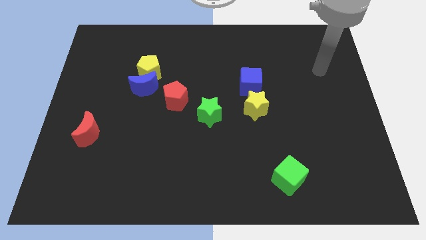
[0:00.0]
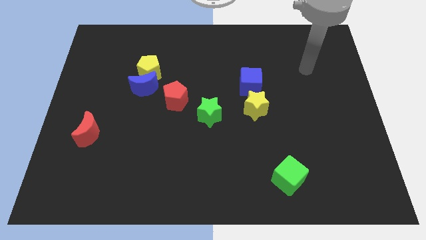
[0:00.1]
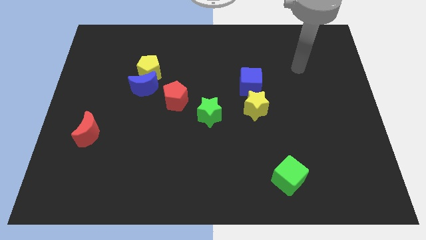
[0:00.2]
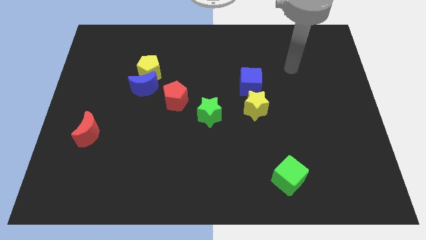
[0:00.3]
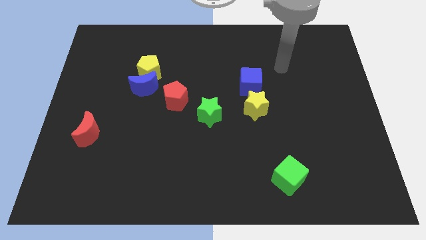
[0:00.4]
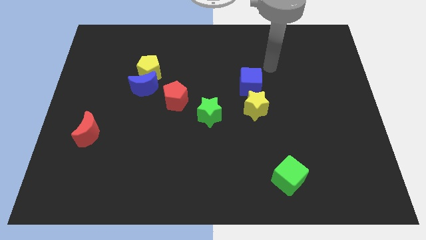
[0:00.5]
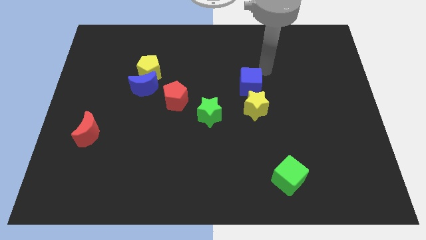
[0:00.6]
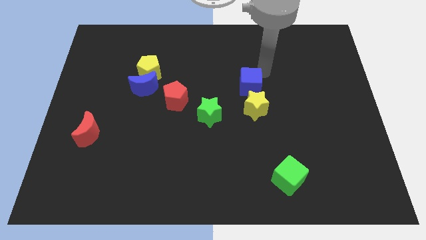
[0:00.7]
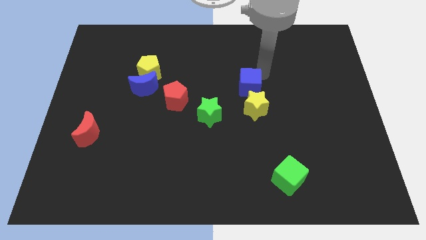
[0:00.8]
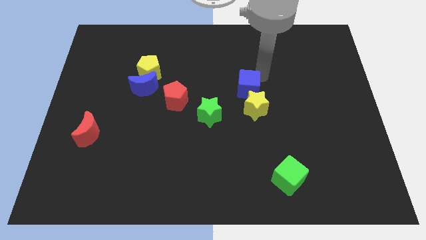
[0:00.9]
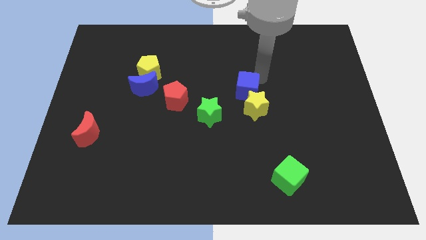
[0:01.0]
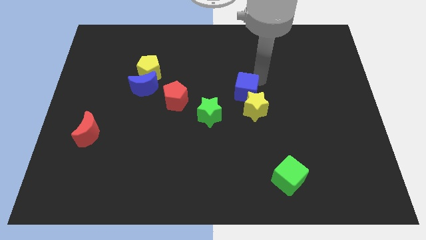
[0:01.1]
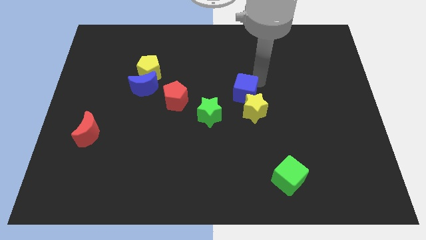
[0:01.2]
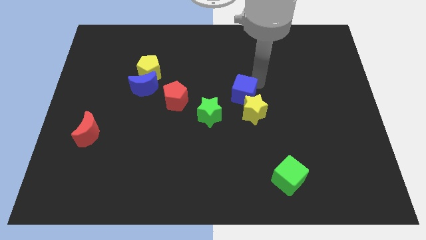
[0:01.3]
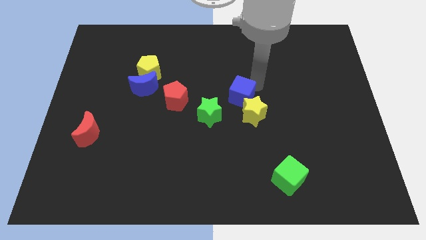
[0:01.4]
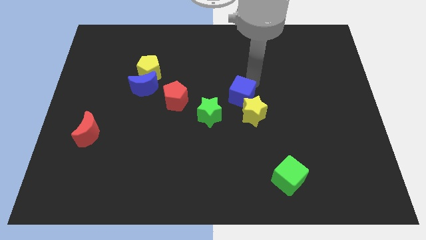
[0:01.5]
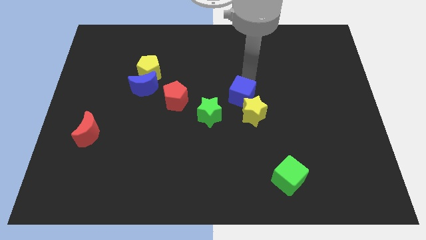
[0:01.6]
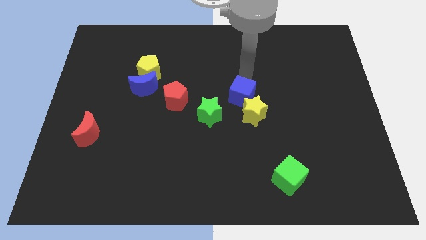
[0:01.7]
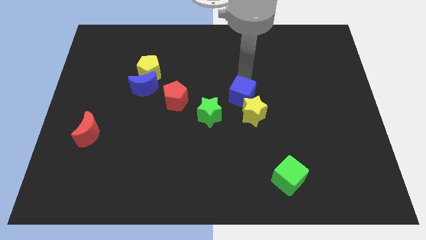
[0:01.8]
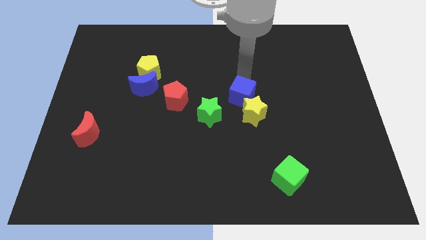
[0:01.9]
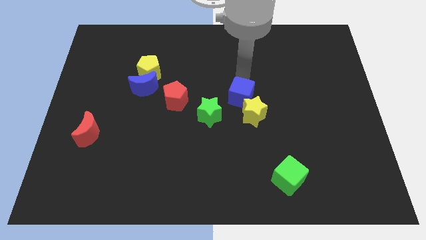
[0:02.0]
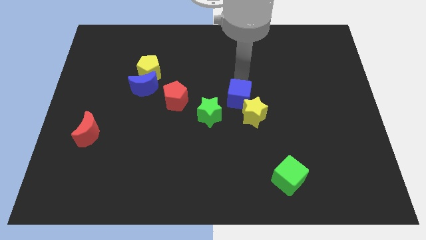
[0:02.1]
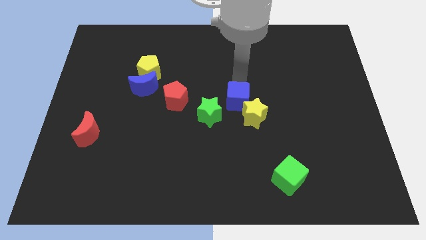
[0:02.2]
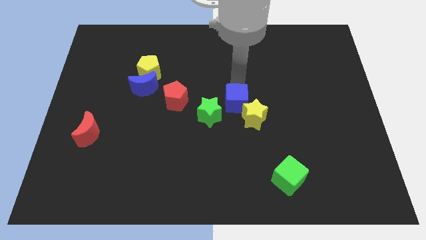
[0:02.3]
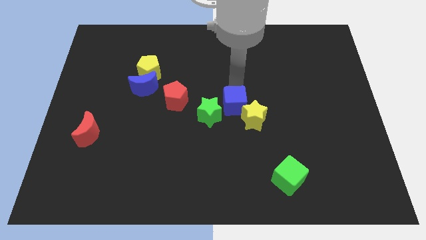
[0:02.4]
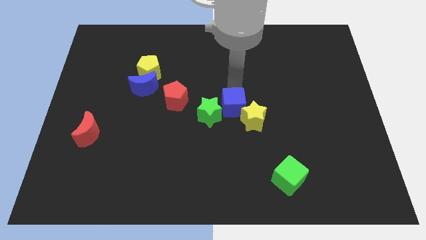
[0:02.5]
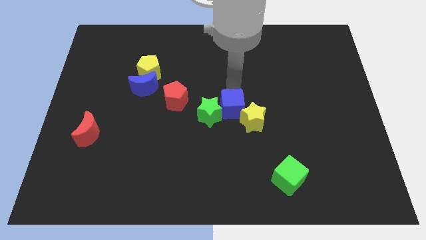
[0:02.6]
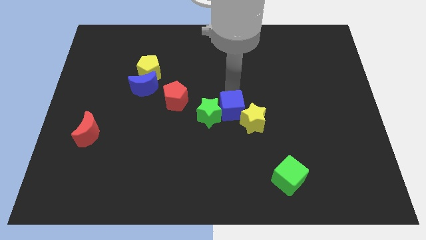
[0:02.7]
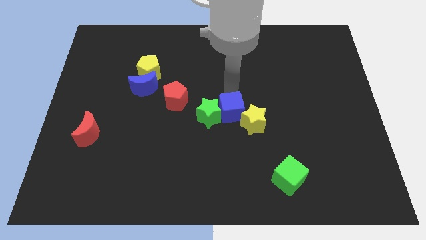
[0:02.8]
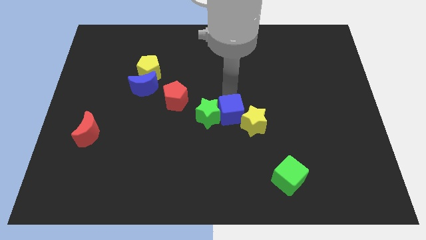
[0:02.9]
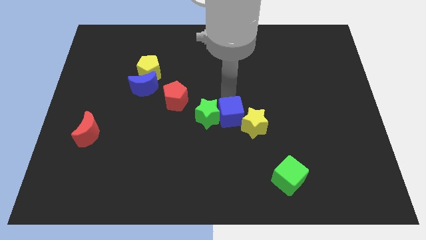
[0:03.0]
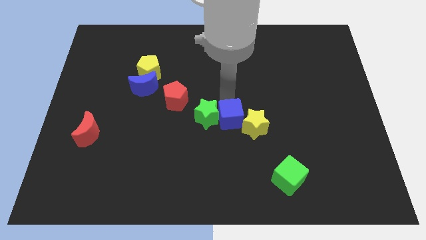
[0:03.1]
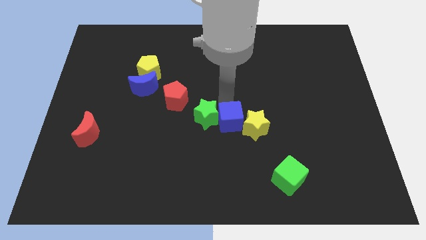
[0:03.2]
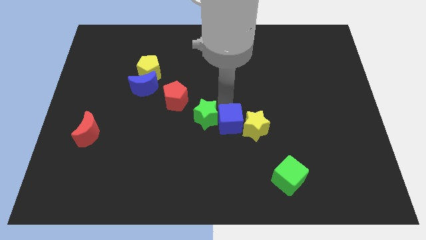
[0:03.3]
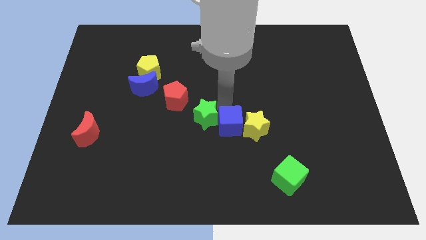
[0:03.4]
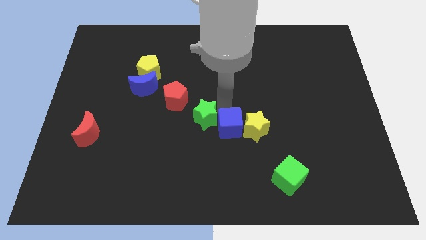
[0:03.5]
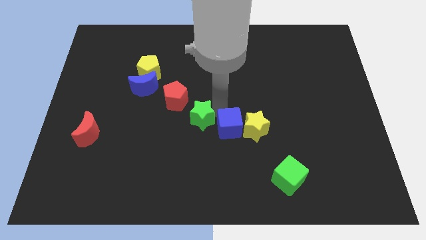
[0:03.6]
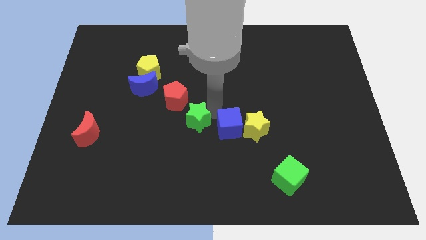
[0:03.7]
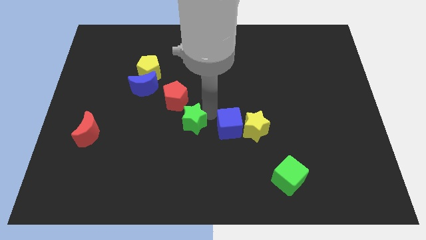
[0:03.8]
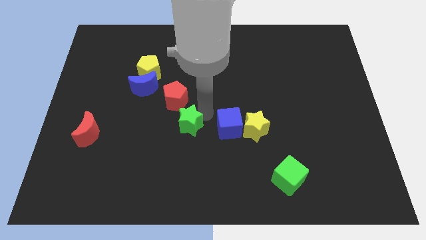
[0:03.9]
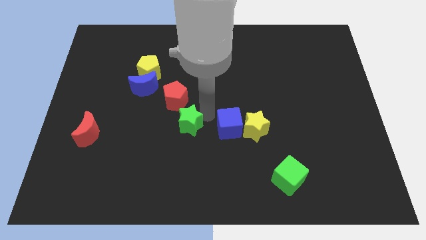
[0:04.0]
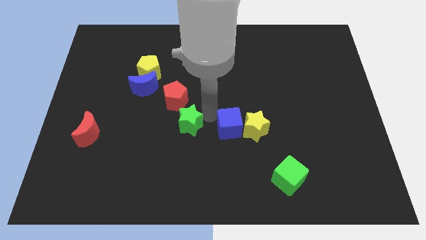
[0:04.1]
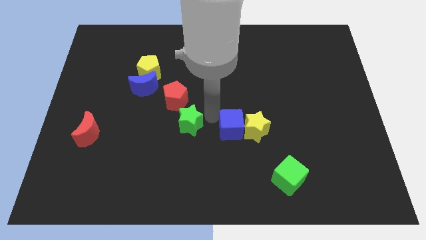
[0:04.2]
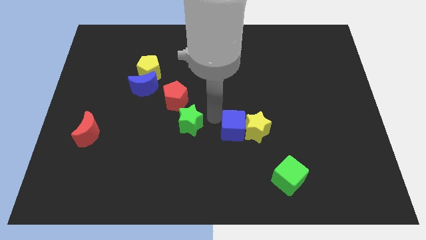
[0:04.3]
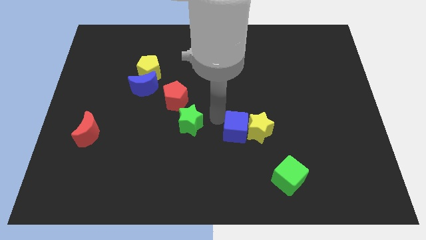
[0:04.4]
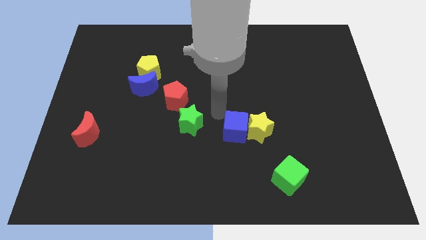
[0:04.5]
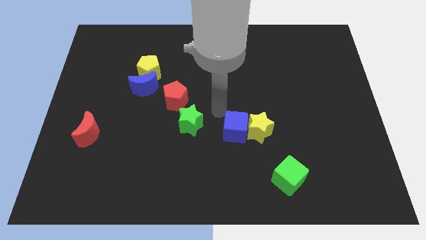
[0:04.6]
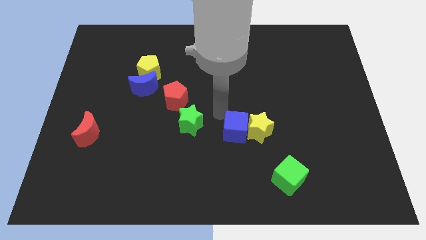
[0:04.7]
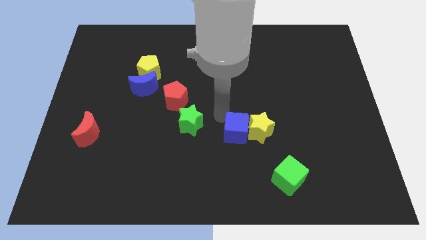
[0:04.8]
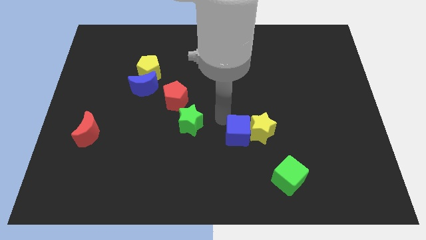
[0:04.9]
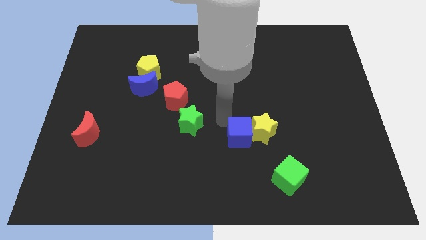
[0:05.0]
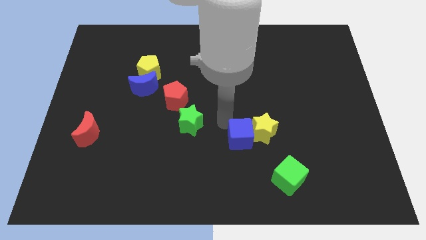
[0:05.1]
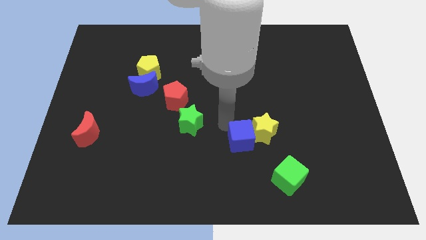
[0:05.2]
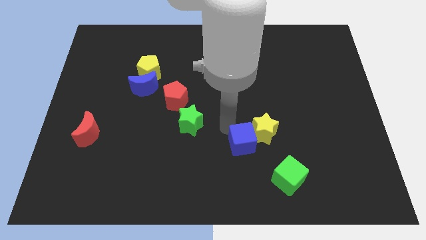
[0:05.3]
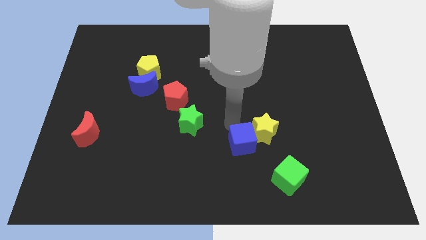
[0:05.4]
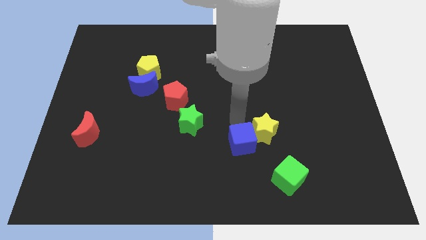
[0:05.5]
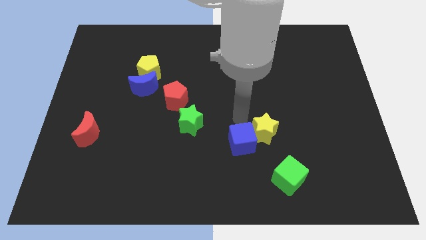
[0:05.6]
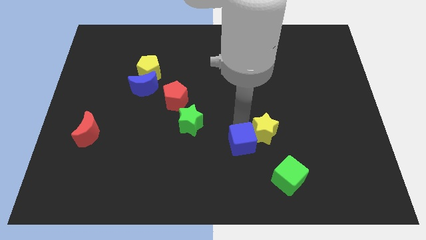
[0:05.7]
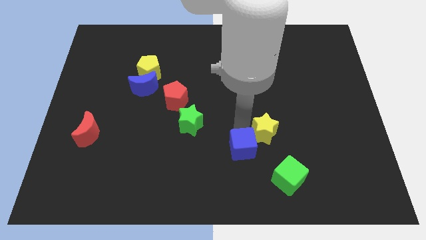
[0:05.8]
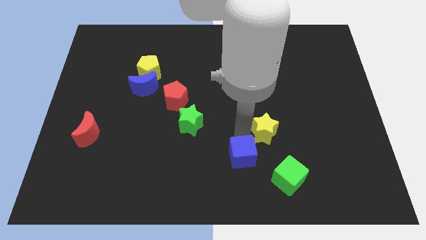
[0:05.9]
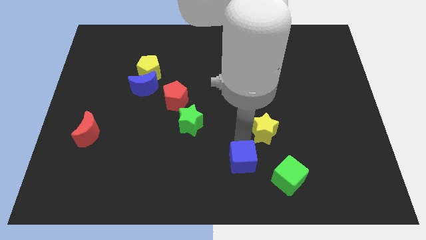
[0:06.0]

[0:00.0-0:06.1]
push the blue cube to the bottom
